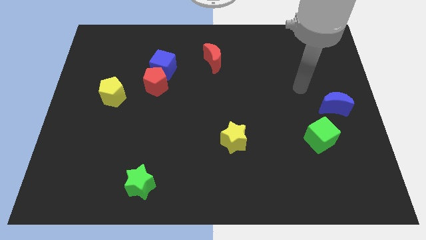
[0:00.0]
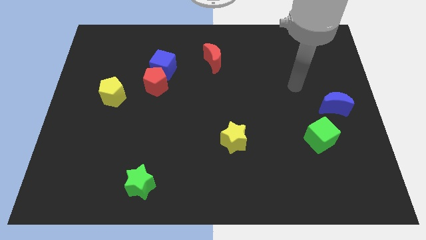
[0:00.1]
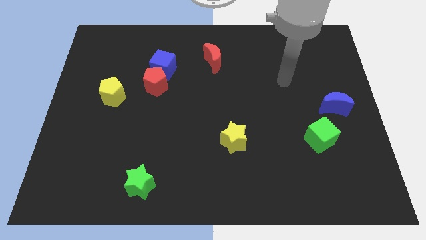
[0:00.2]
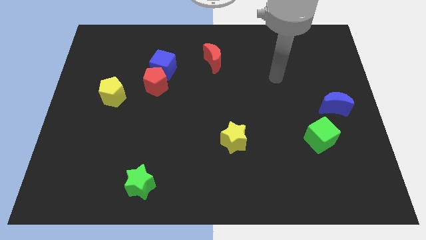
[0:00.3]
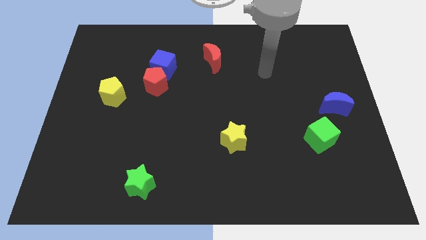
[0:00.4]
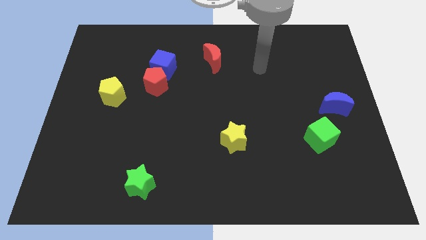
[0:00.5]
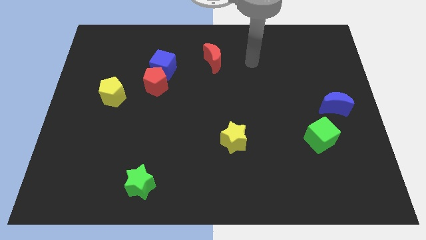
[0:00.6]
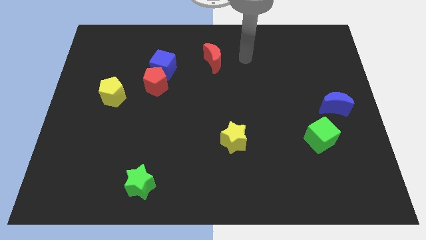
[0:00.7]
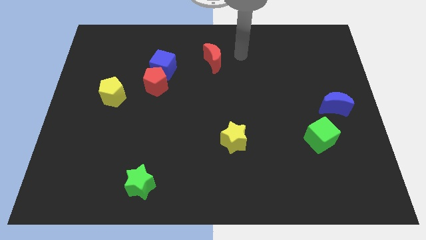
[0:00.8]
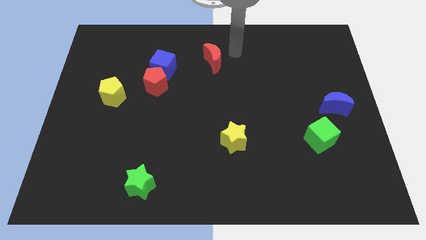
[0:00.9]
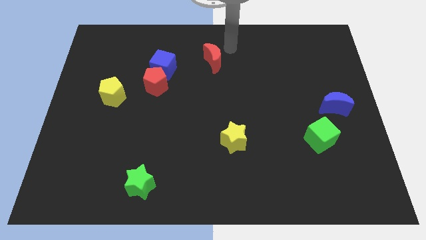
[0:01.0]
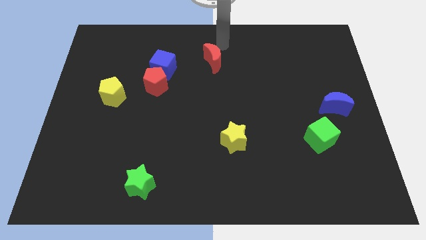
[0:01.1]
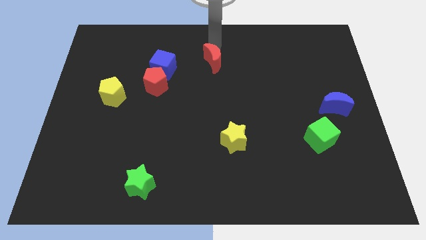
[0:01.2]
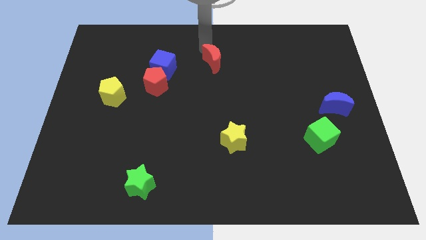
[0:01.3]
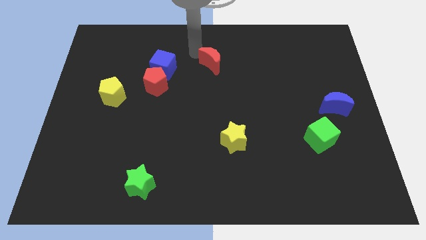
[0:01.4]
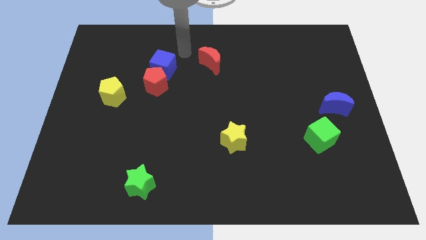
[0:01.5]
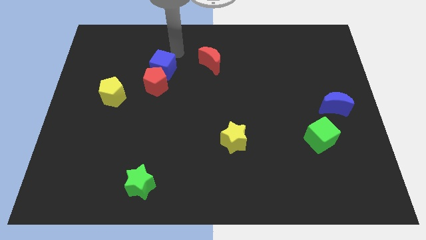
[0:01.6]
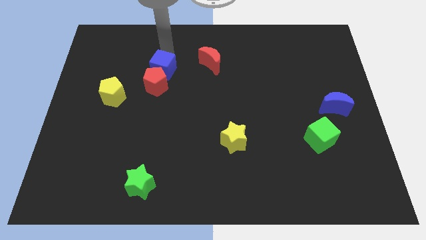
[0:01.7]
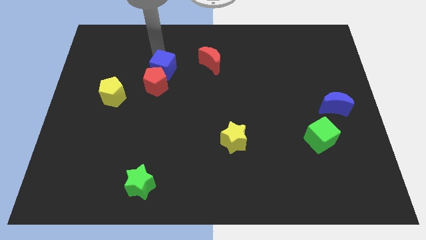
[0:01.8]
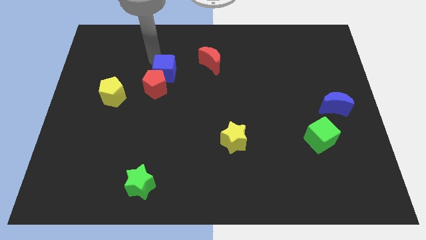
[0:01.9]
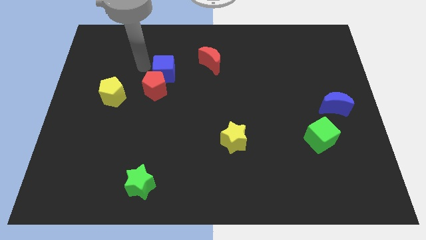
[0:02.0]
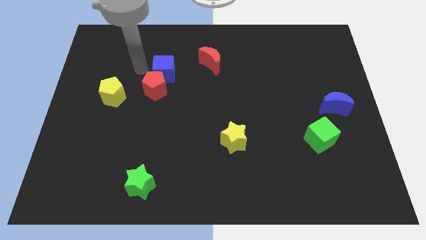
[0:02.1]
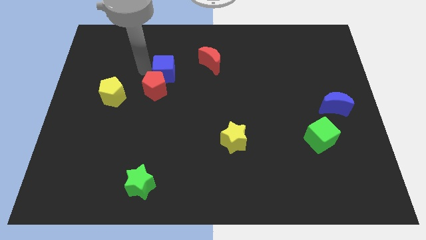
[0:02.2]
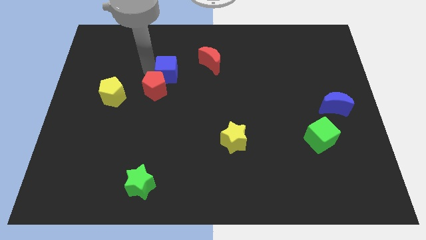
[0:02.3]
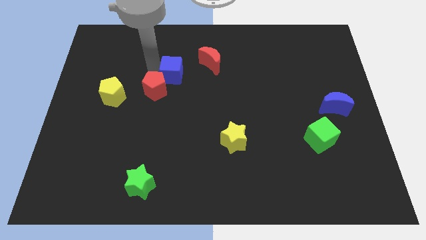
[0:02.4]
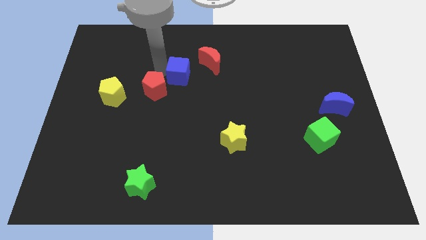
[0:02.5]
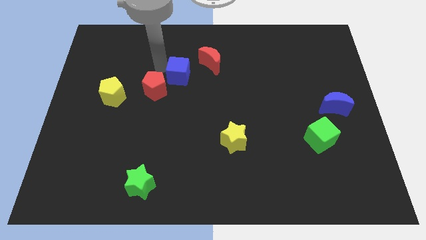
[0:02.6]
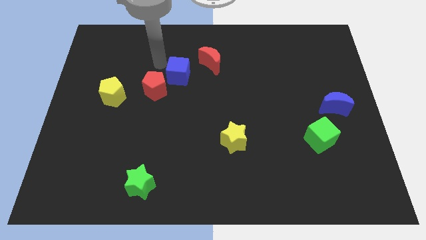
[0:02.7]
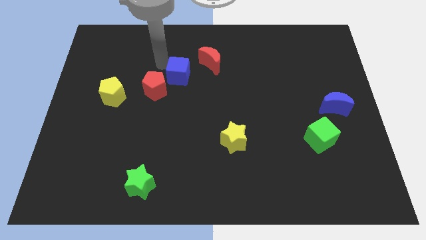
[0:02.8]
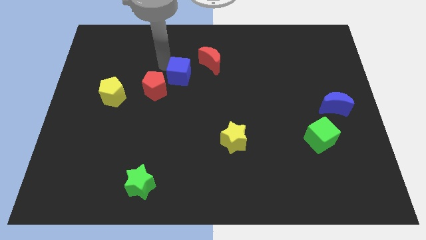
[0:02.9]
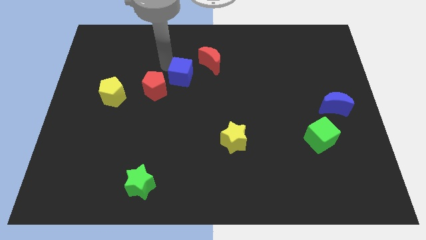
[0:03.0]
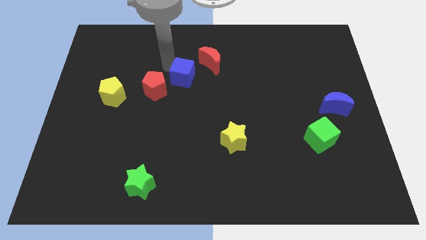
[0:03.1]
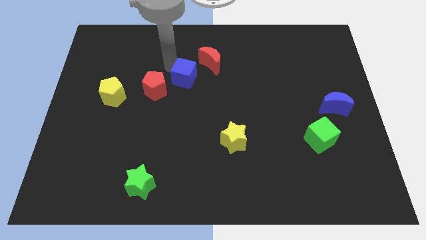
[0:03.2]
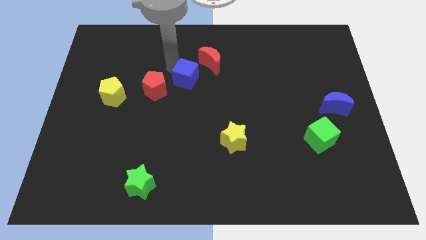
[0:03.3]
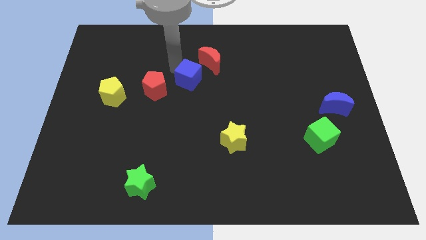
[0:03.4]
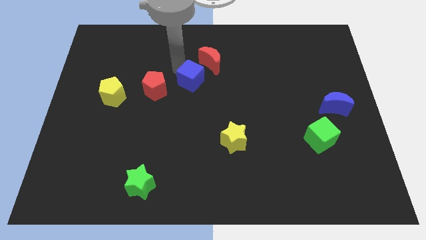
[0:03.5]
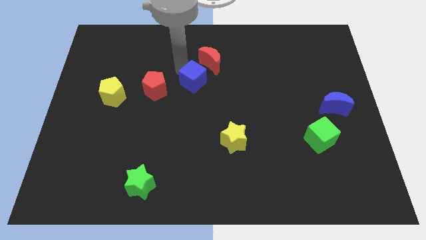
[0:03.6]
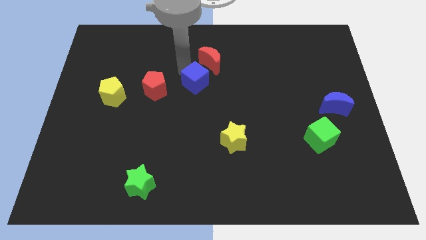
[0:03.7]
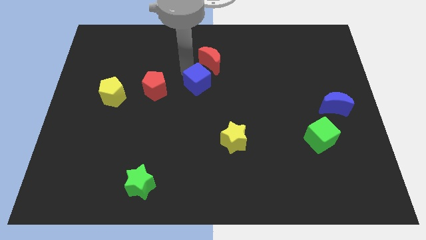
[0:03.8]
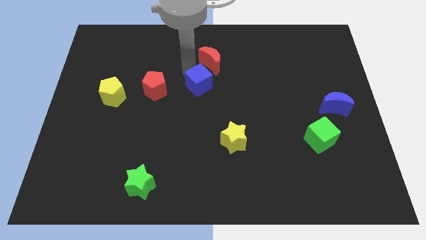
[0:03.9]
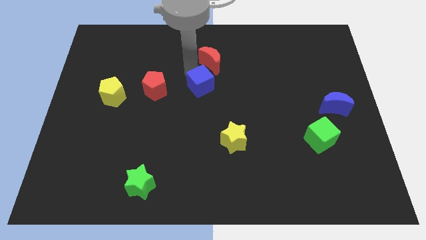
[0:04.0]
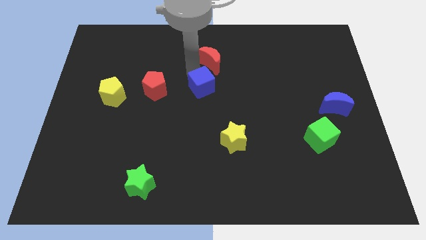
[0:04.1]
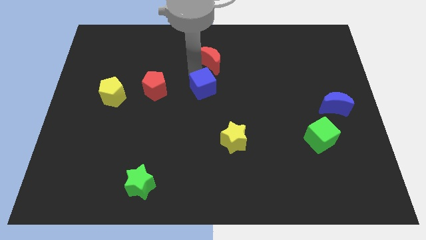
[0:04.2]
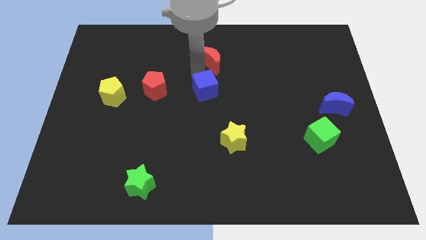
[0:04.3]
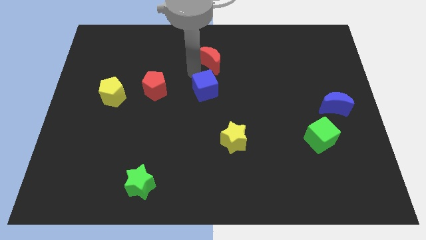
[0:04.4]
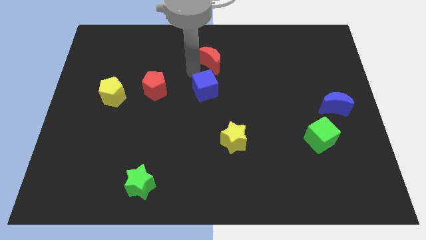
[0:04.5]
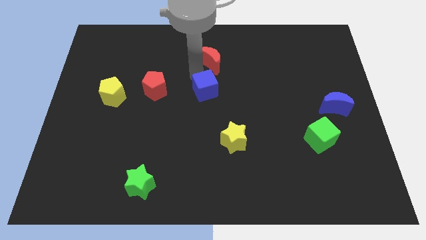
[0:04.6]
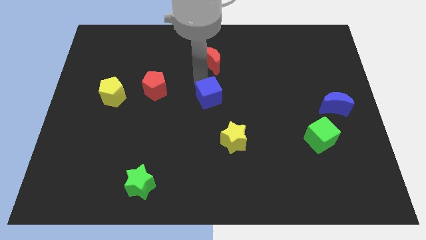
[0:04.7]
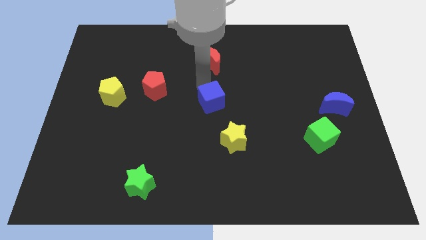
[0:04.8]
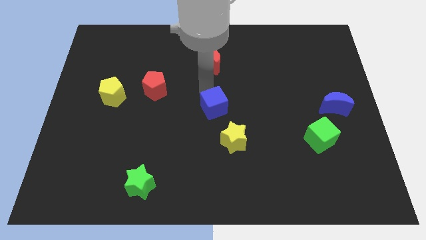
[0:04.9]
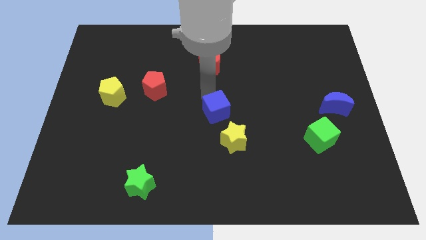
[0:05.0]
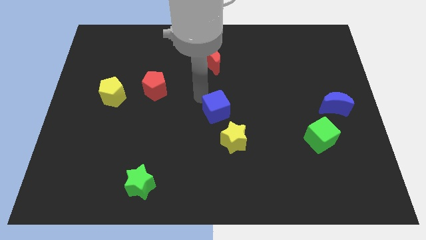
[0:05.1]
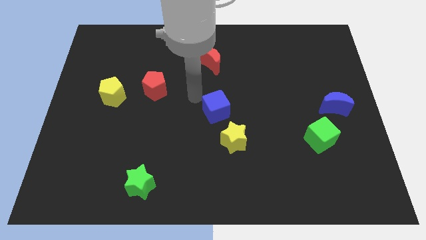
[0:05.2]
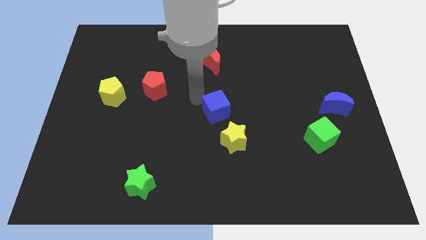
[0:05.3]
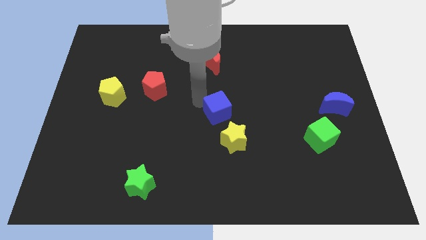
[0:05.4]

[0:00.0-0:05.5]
move the blue cube diagonally down and right

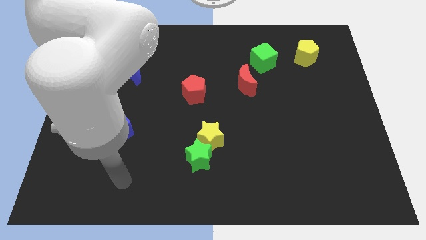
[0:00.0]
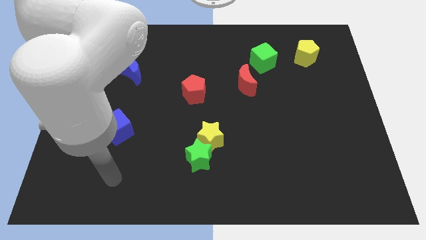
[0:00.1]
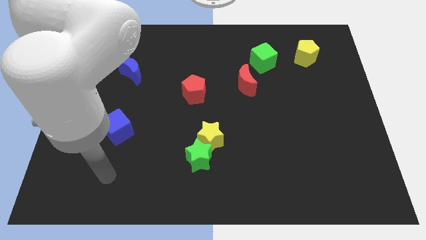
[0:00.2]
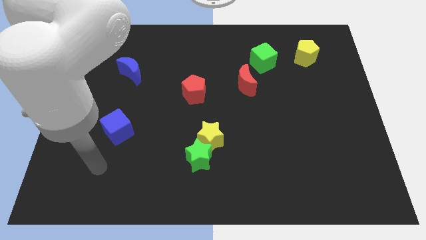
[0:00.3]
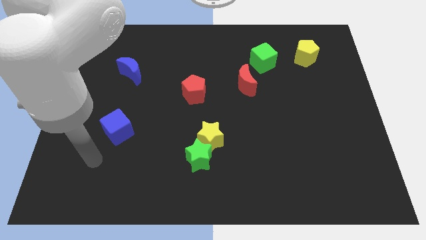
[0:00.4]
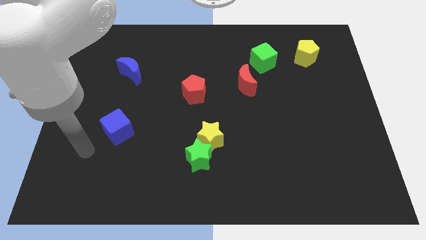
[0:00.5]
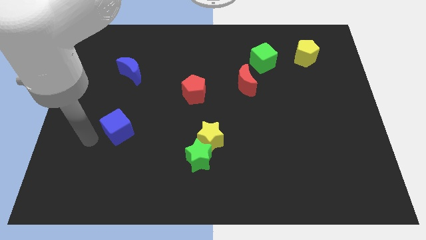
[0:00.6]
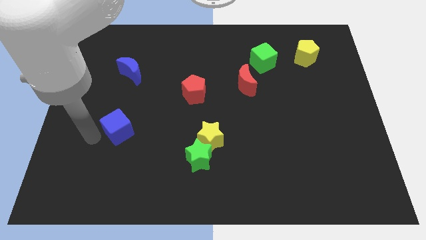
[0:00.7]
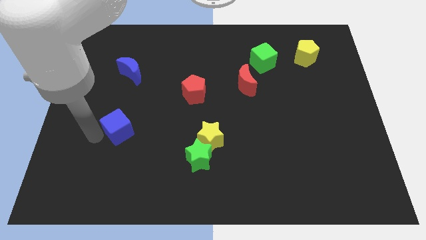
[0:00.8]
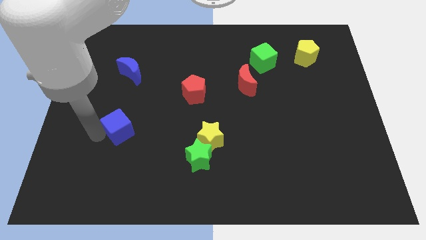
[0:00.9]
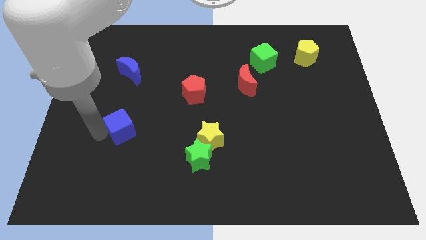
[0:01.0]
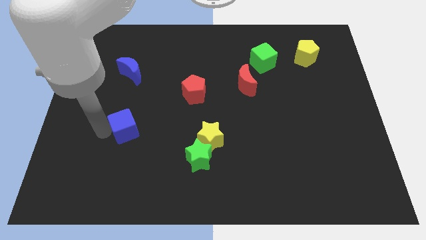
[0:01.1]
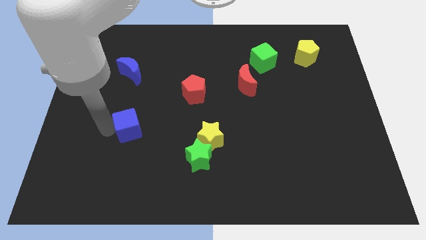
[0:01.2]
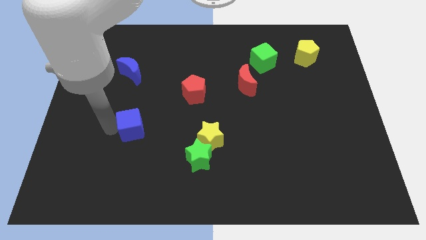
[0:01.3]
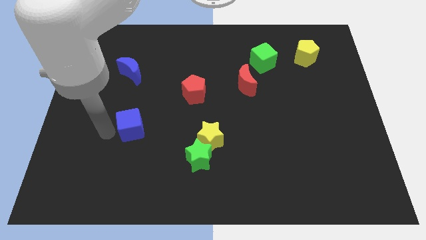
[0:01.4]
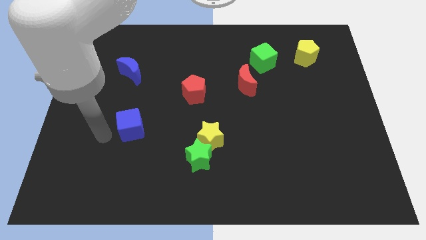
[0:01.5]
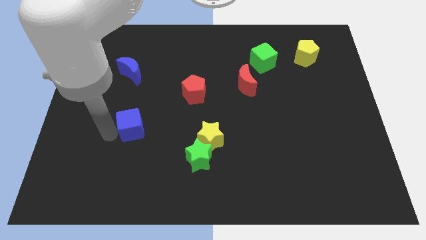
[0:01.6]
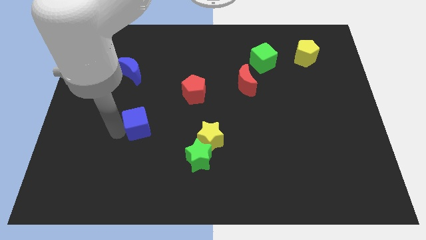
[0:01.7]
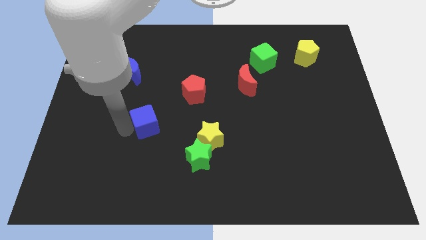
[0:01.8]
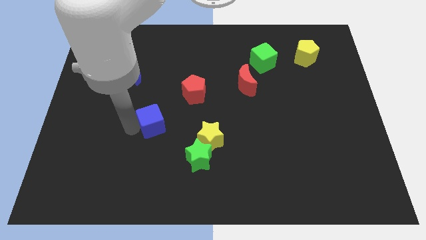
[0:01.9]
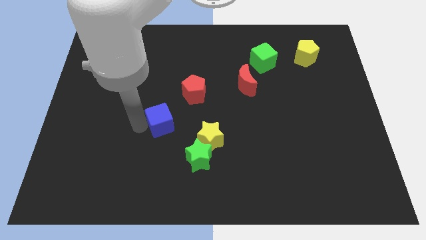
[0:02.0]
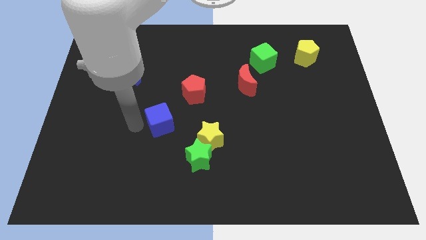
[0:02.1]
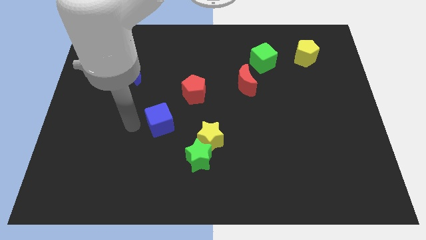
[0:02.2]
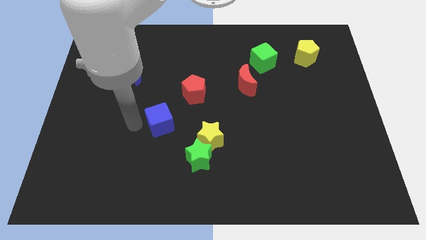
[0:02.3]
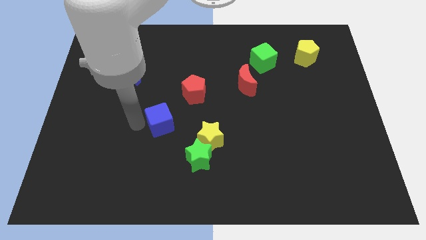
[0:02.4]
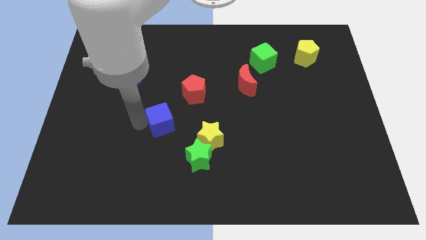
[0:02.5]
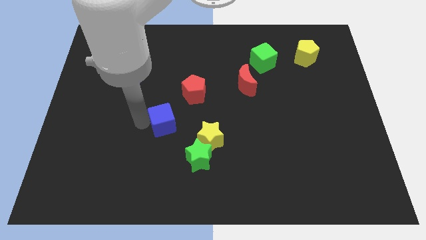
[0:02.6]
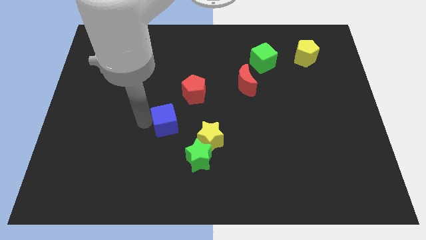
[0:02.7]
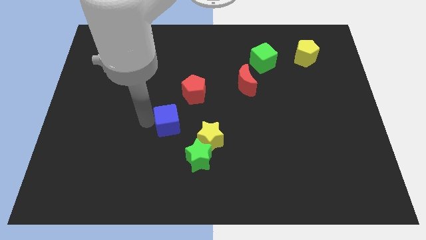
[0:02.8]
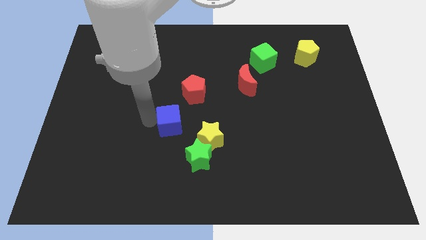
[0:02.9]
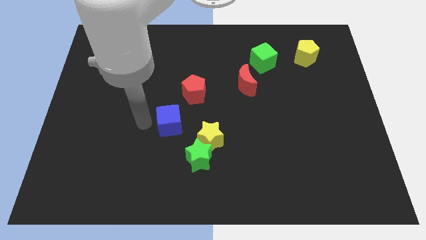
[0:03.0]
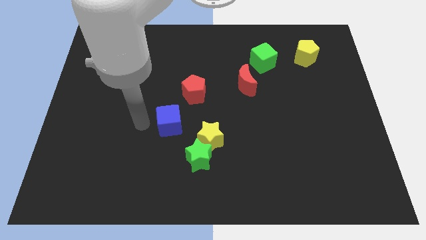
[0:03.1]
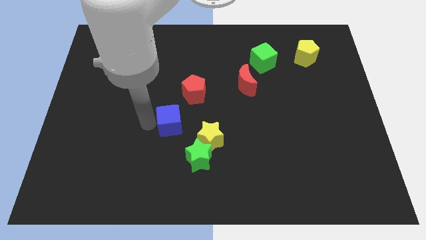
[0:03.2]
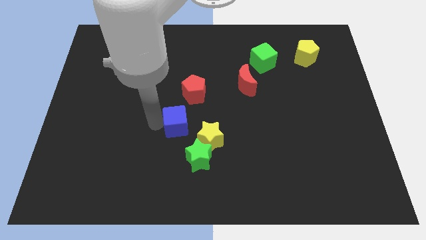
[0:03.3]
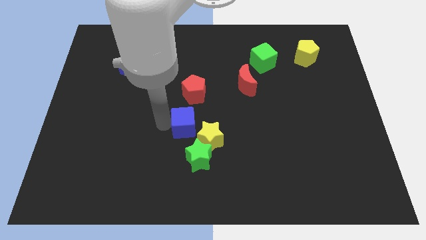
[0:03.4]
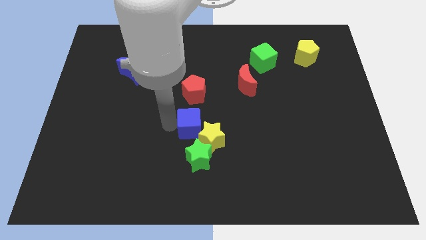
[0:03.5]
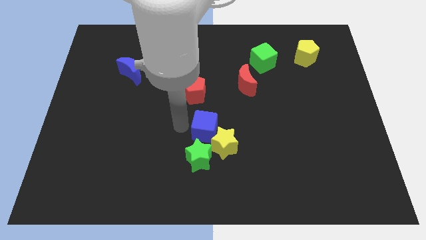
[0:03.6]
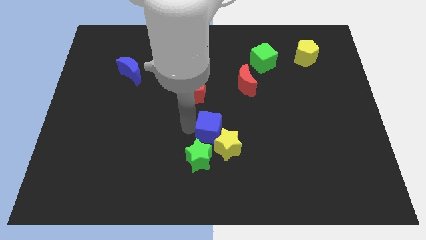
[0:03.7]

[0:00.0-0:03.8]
push the blue cube to the right
